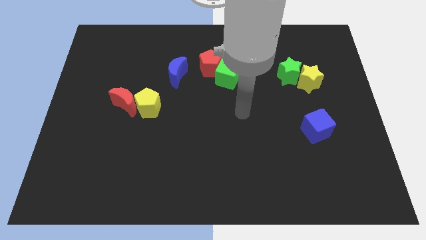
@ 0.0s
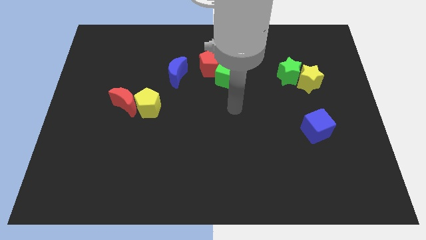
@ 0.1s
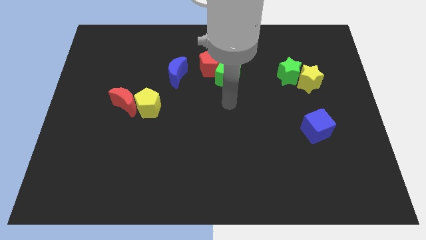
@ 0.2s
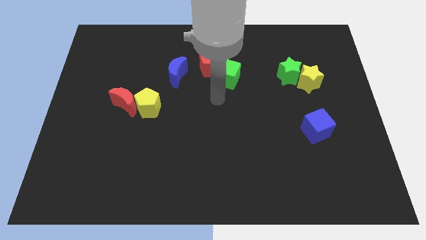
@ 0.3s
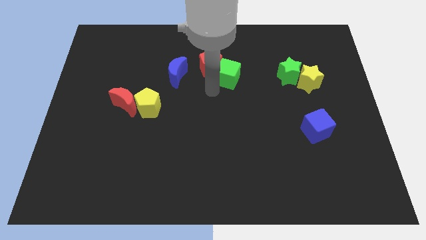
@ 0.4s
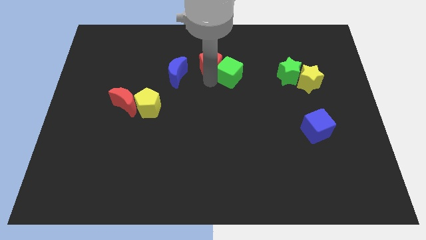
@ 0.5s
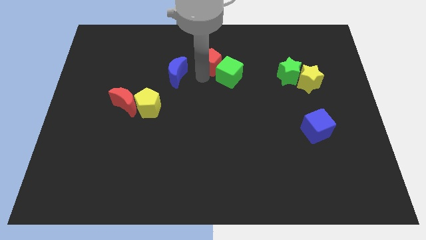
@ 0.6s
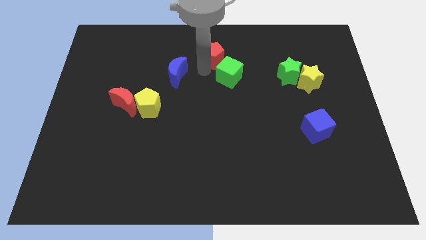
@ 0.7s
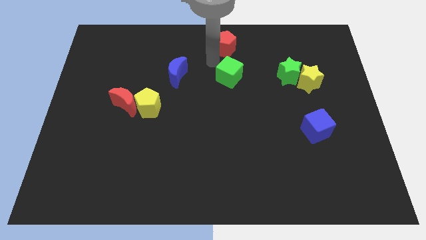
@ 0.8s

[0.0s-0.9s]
move the green cube away from the red pentagon

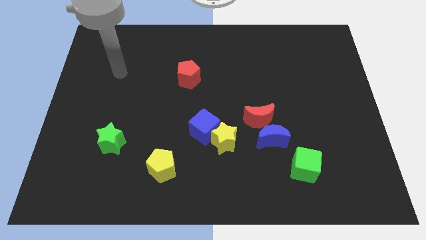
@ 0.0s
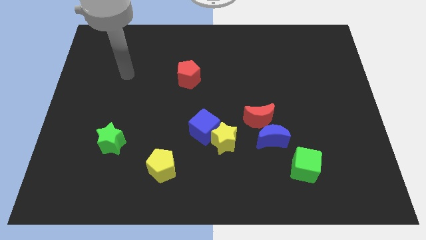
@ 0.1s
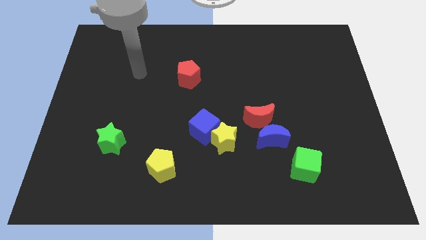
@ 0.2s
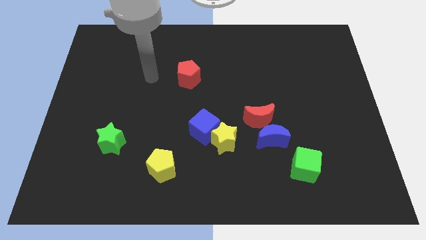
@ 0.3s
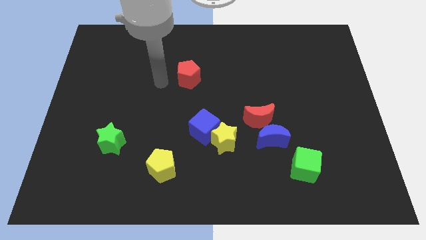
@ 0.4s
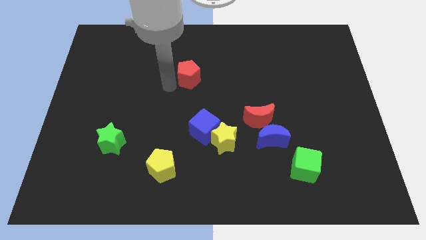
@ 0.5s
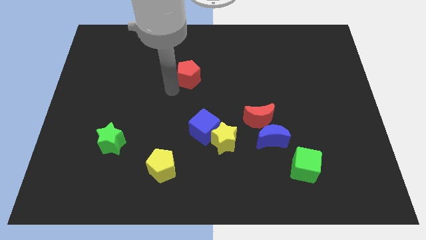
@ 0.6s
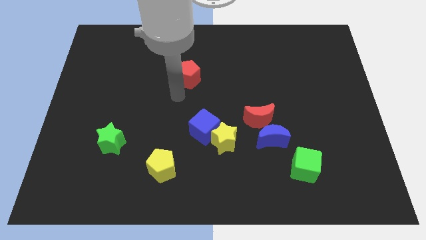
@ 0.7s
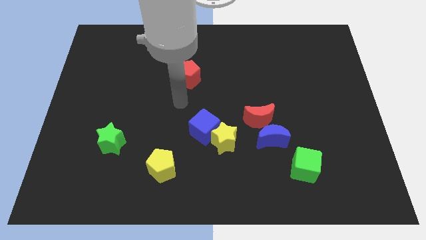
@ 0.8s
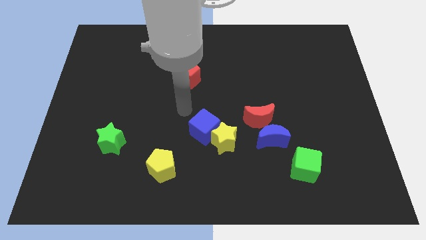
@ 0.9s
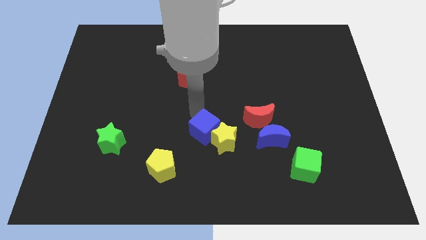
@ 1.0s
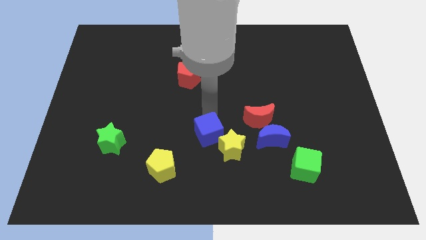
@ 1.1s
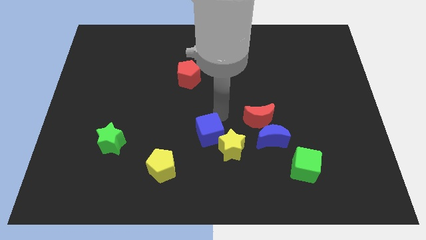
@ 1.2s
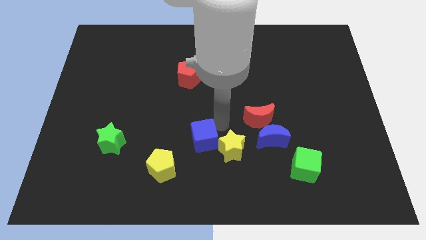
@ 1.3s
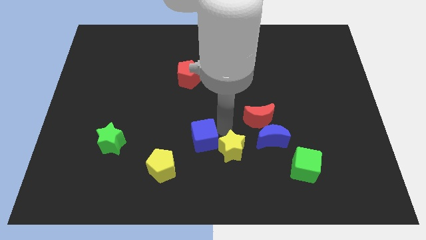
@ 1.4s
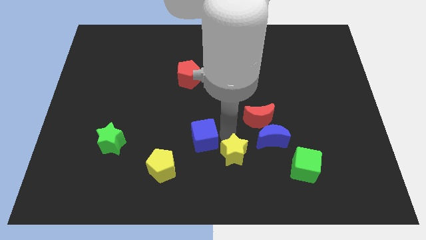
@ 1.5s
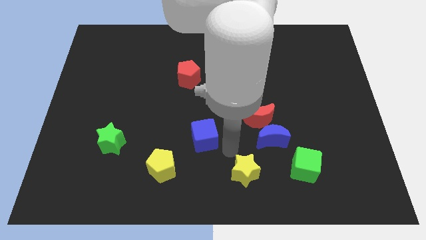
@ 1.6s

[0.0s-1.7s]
separate the blue cube from the yellow star

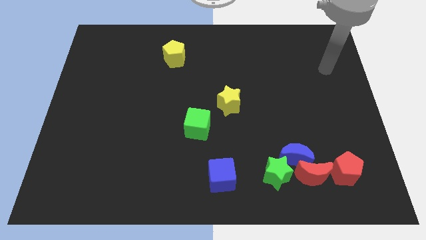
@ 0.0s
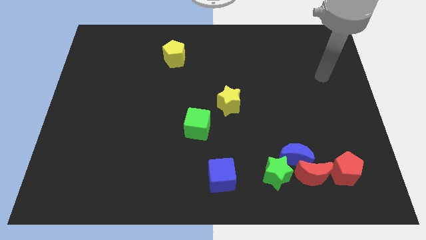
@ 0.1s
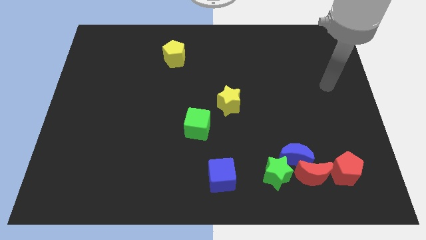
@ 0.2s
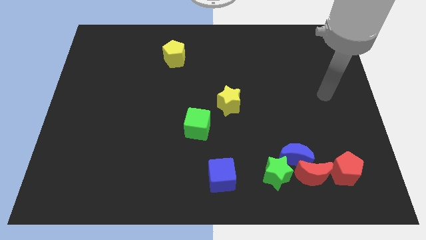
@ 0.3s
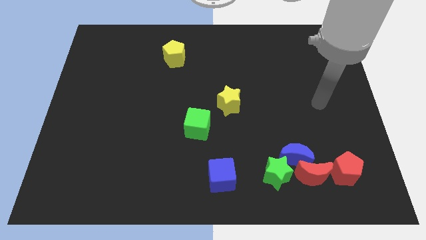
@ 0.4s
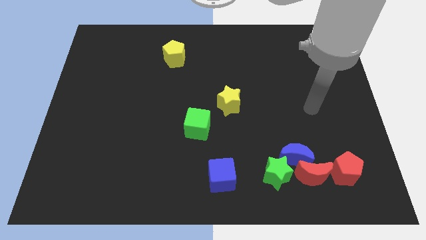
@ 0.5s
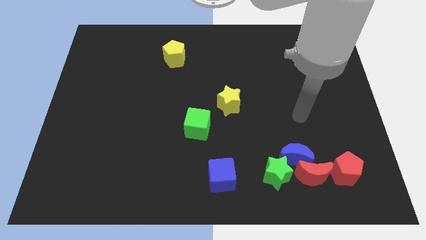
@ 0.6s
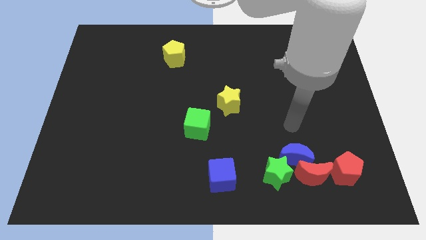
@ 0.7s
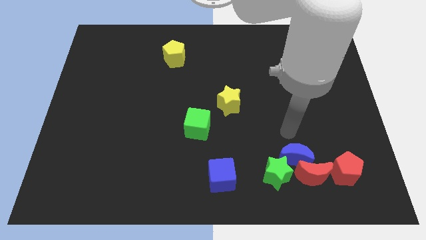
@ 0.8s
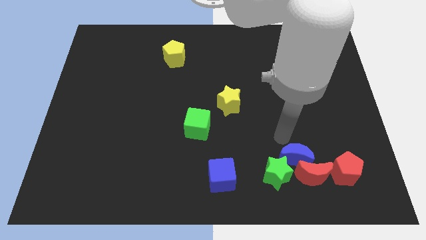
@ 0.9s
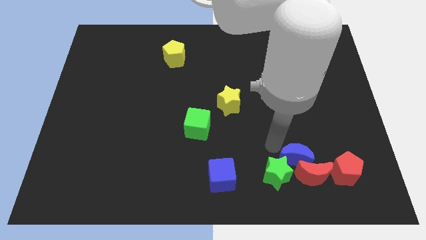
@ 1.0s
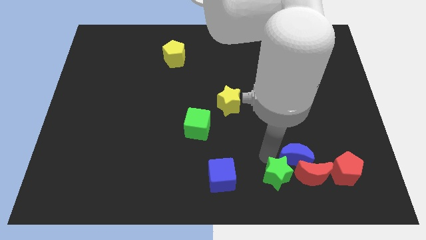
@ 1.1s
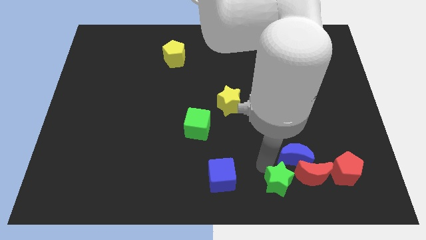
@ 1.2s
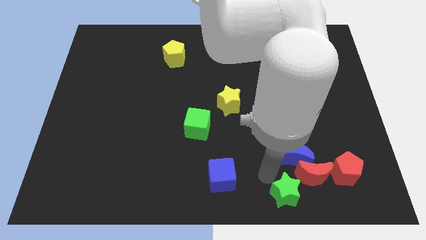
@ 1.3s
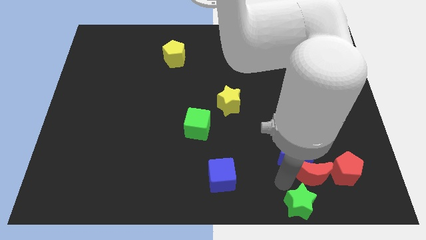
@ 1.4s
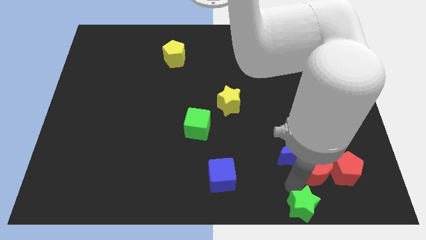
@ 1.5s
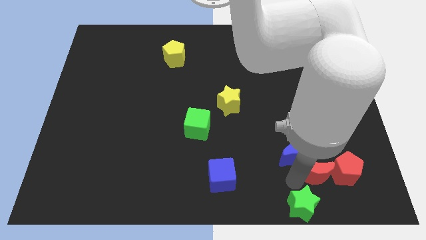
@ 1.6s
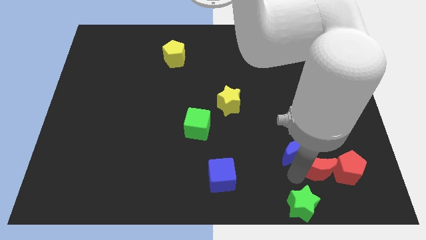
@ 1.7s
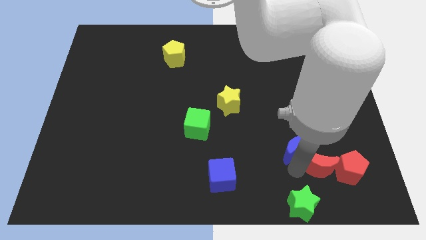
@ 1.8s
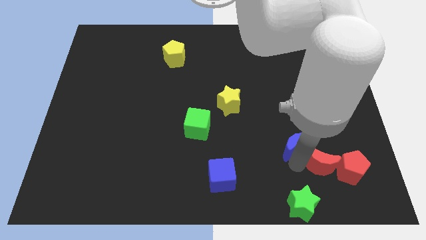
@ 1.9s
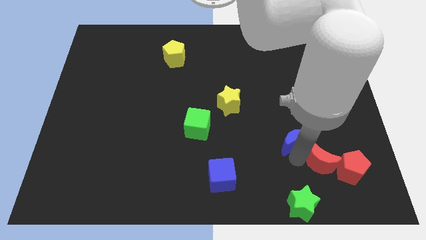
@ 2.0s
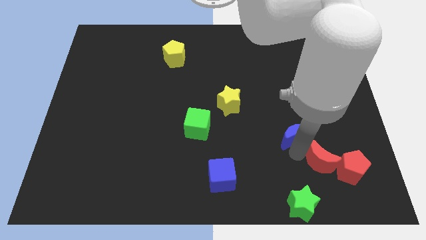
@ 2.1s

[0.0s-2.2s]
pull the blue moon apart from the red moon and green star

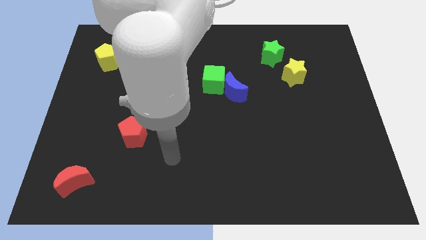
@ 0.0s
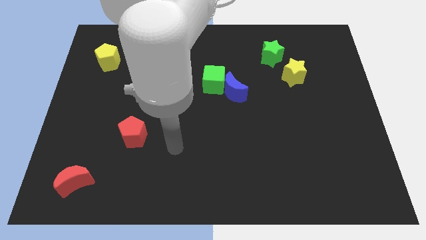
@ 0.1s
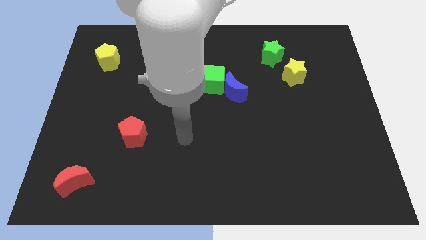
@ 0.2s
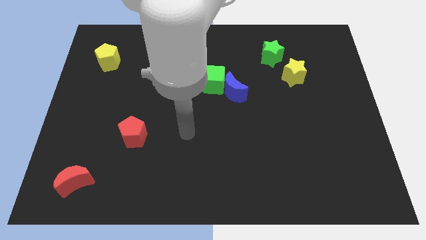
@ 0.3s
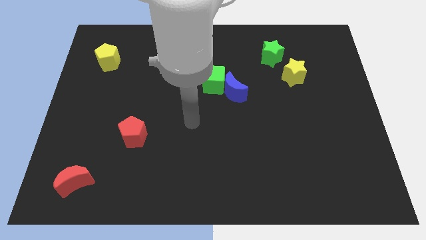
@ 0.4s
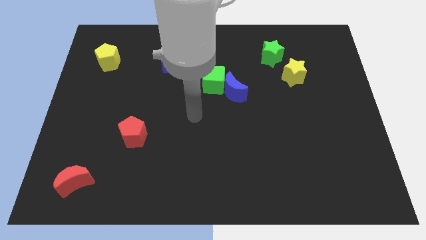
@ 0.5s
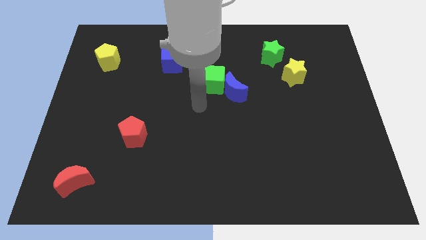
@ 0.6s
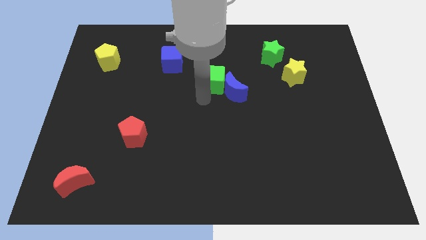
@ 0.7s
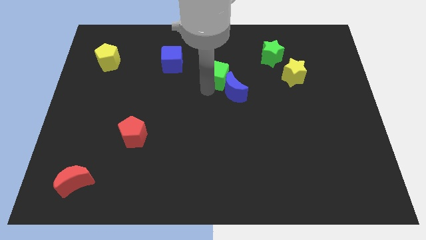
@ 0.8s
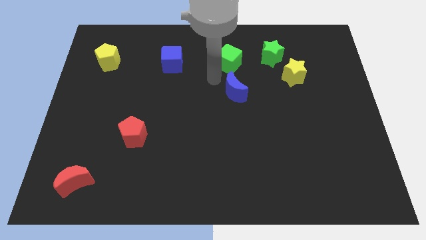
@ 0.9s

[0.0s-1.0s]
separate the blue moon from the green cube

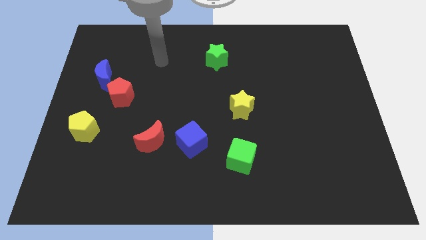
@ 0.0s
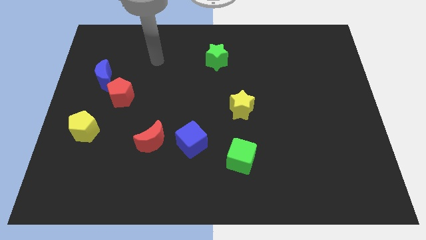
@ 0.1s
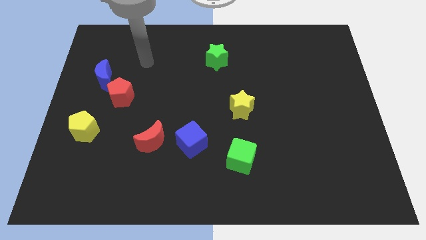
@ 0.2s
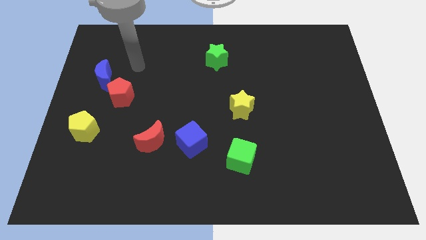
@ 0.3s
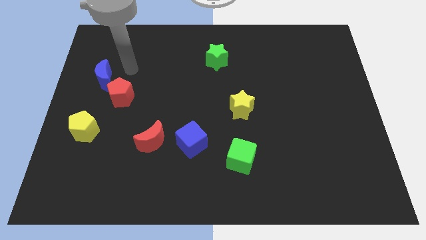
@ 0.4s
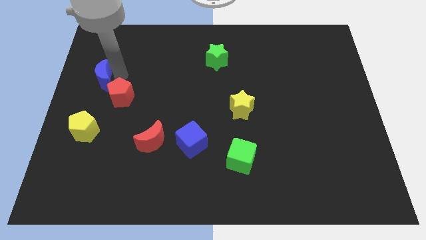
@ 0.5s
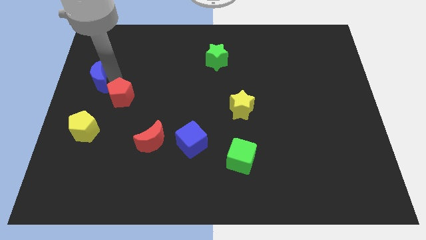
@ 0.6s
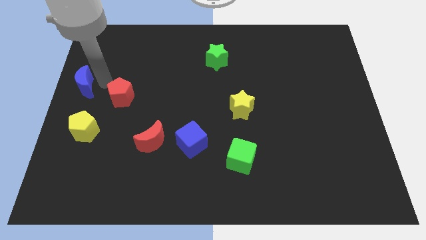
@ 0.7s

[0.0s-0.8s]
separate the red pentagon from the blue moon

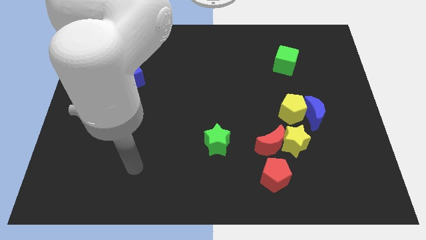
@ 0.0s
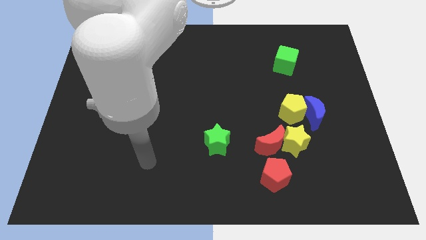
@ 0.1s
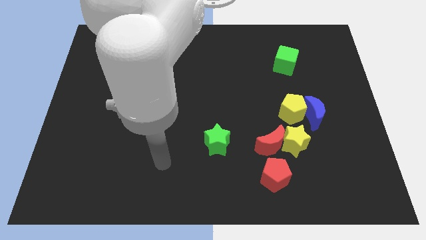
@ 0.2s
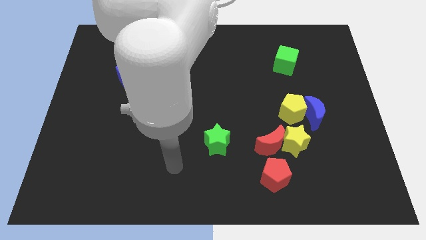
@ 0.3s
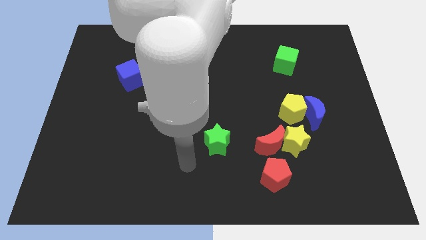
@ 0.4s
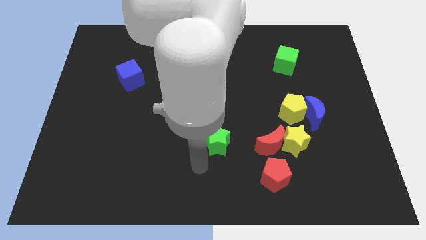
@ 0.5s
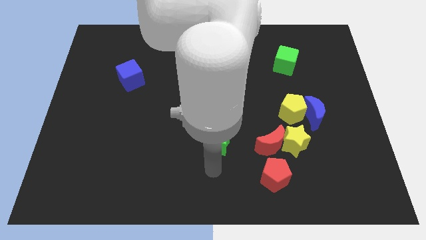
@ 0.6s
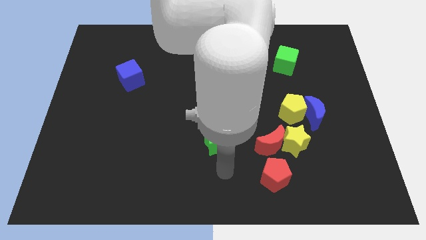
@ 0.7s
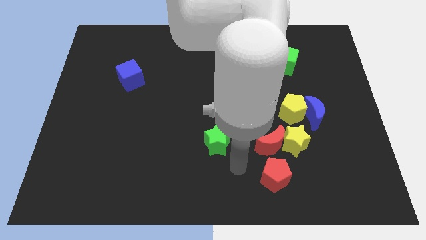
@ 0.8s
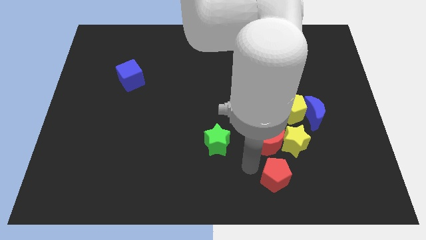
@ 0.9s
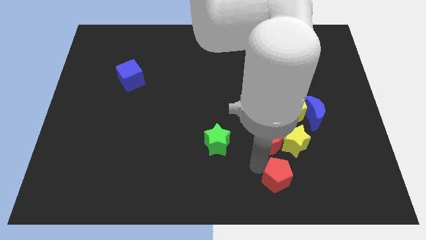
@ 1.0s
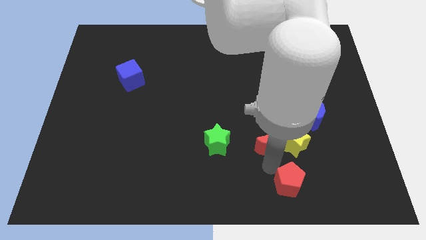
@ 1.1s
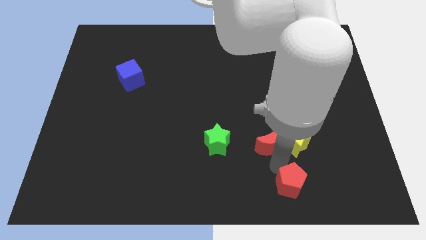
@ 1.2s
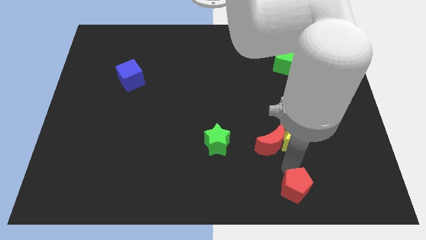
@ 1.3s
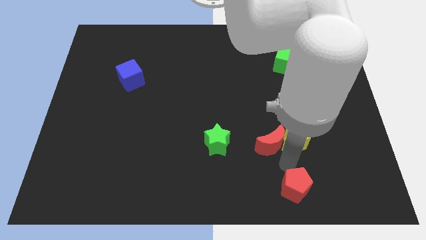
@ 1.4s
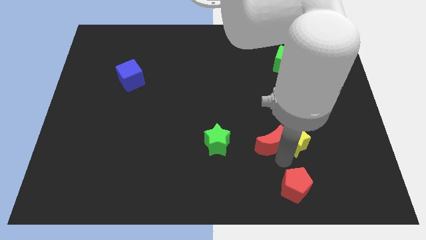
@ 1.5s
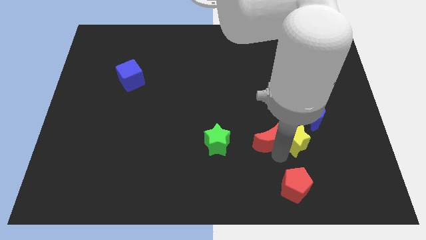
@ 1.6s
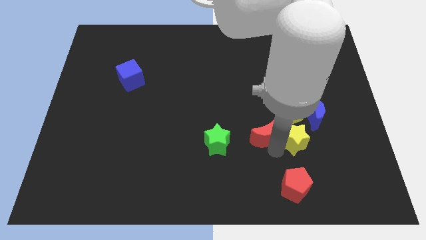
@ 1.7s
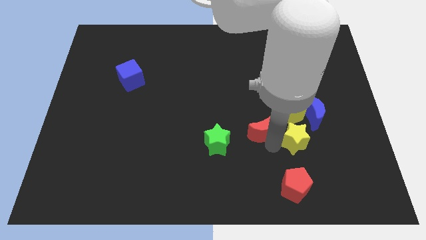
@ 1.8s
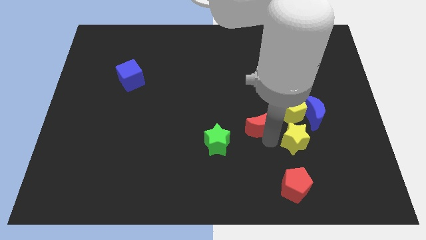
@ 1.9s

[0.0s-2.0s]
move the red moon away from the yellow star and red pentagon

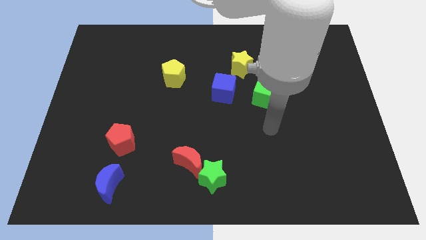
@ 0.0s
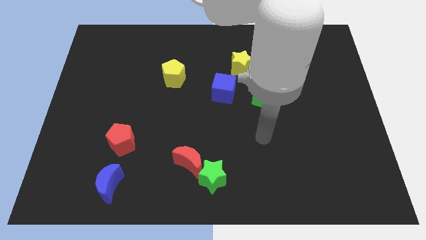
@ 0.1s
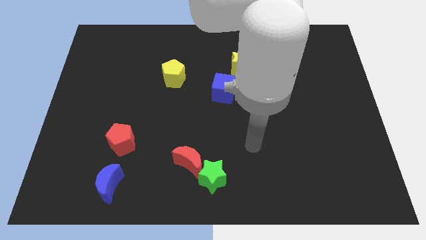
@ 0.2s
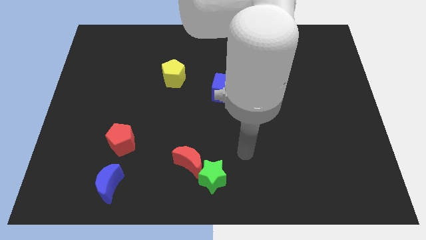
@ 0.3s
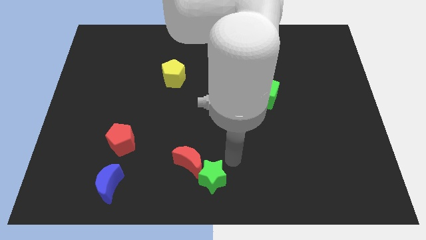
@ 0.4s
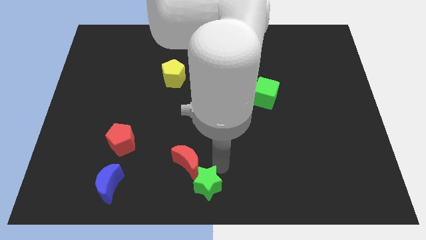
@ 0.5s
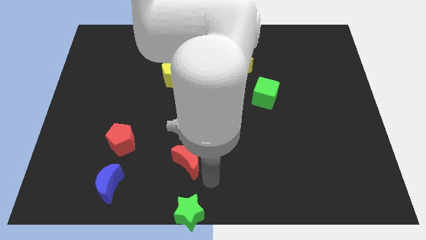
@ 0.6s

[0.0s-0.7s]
pull the red moon apart from the green star

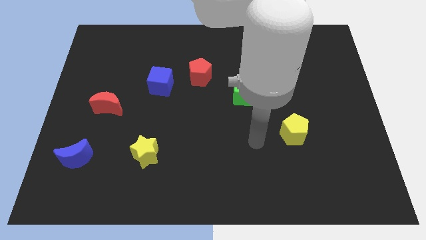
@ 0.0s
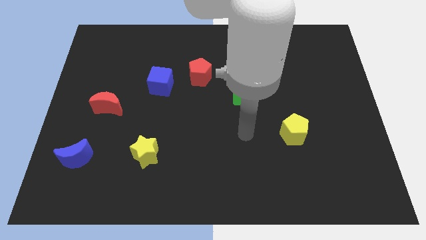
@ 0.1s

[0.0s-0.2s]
separate the red pentagon from the blue cube
